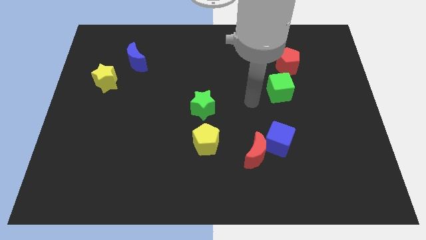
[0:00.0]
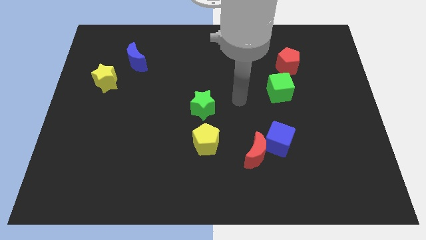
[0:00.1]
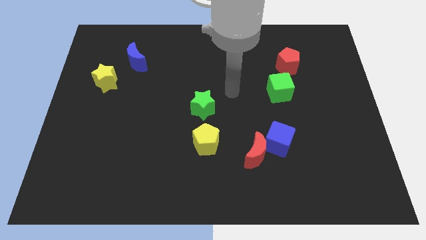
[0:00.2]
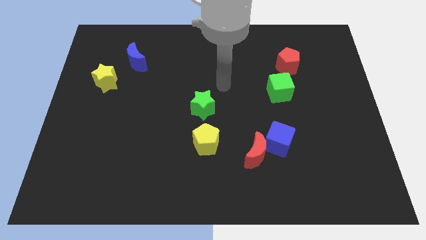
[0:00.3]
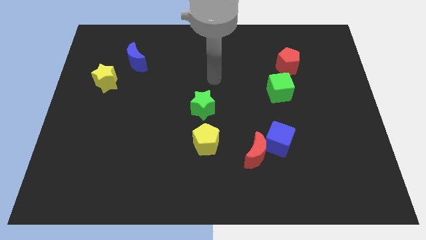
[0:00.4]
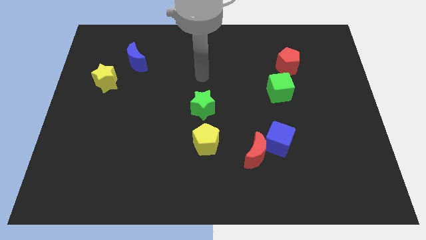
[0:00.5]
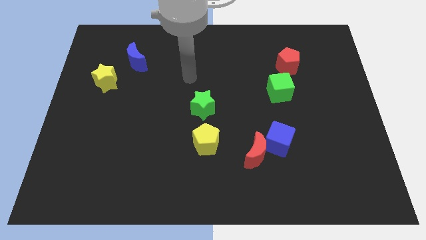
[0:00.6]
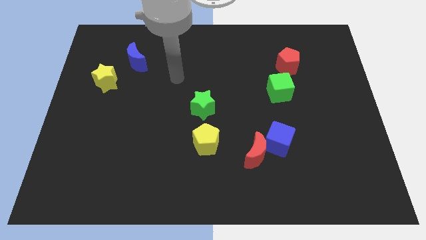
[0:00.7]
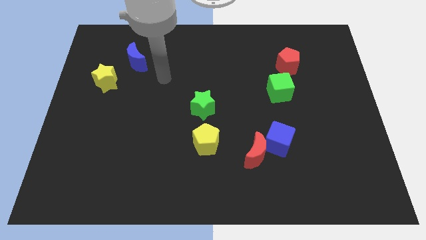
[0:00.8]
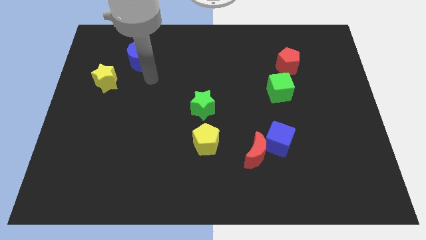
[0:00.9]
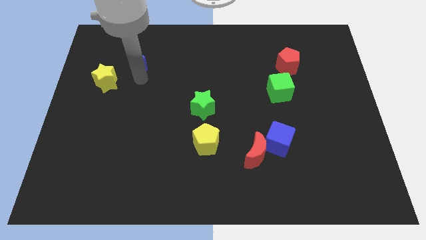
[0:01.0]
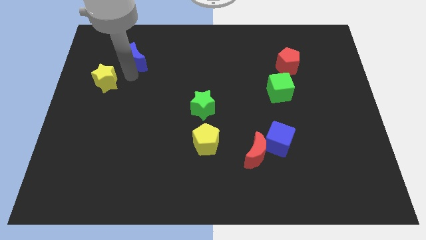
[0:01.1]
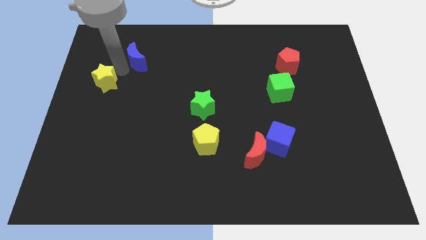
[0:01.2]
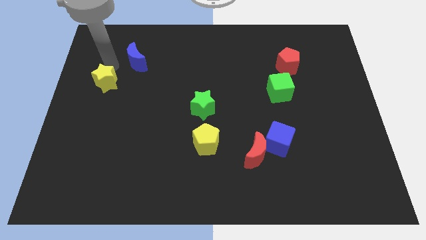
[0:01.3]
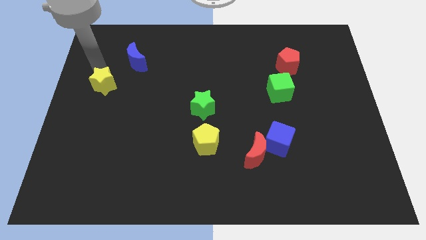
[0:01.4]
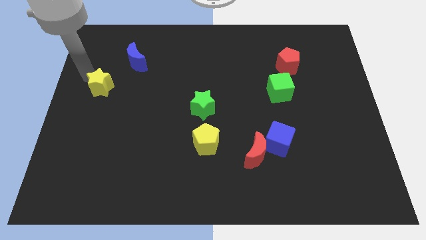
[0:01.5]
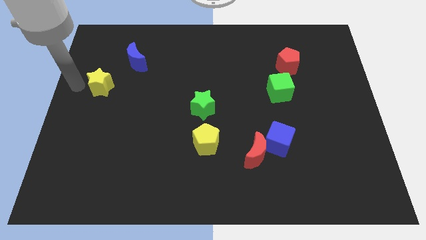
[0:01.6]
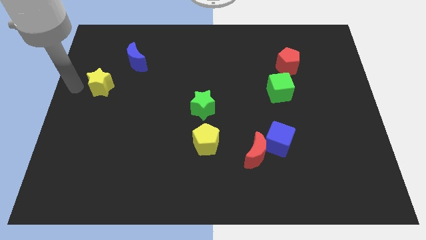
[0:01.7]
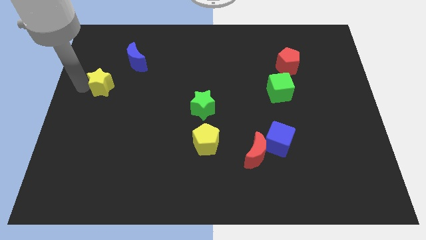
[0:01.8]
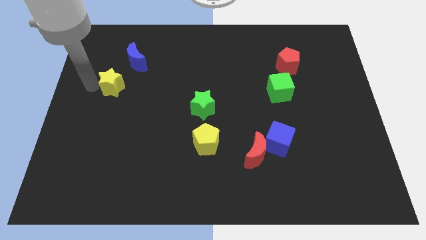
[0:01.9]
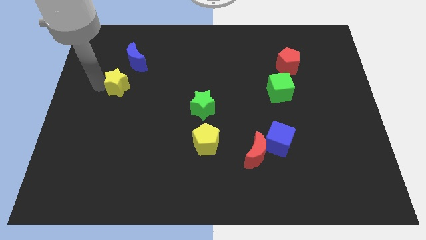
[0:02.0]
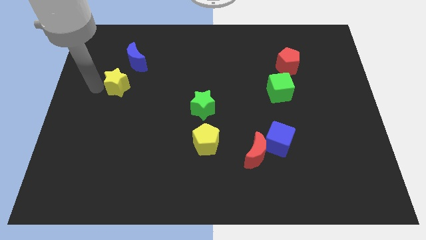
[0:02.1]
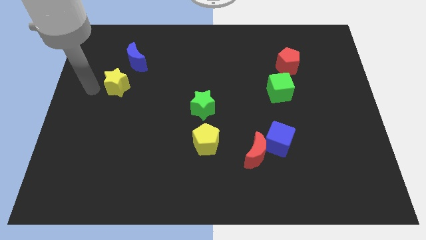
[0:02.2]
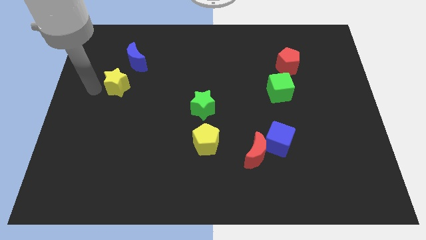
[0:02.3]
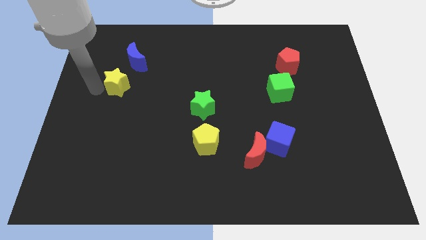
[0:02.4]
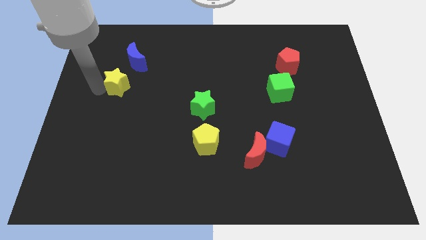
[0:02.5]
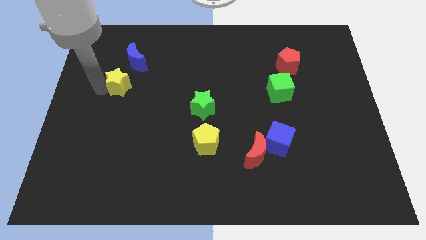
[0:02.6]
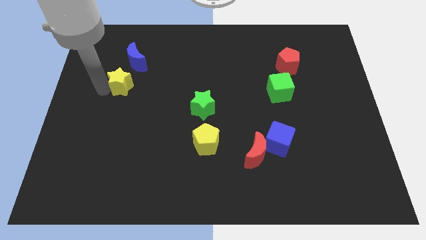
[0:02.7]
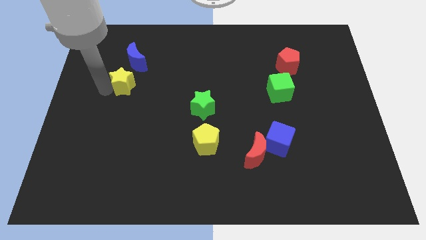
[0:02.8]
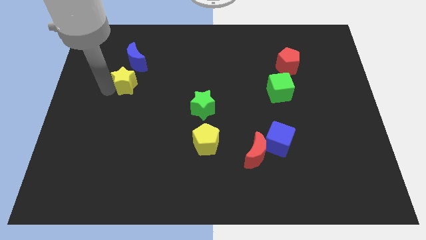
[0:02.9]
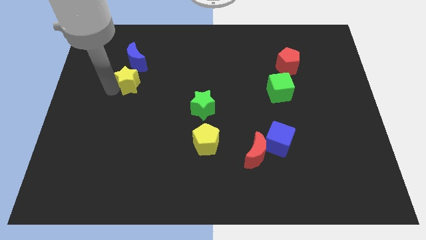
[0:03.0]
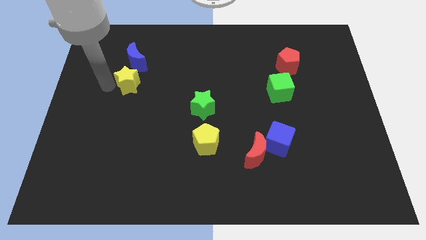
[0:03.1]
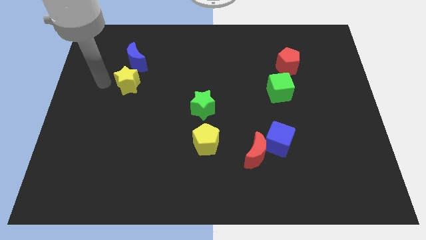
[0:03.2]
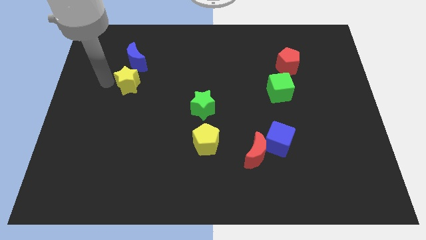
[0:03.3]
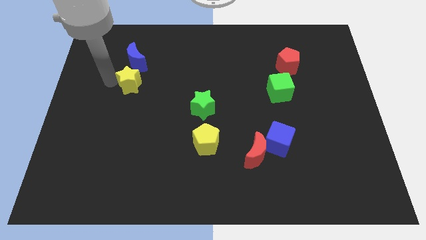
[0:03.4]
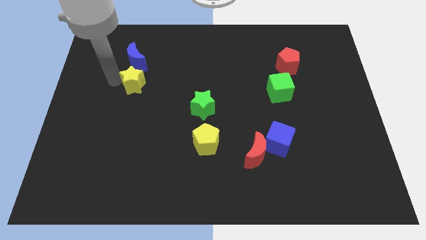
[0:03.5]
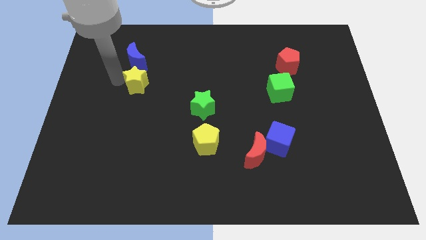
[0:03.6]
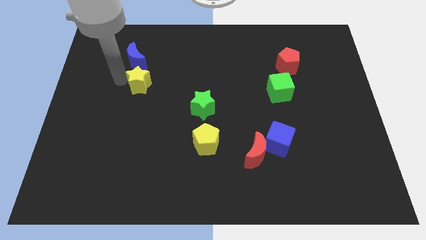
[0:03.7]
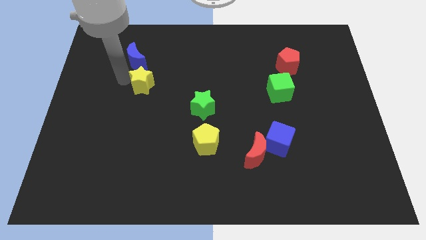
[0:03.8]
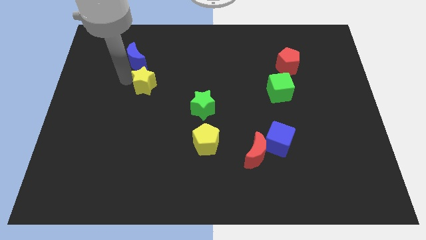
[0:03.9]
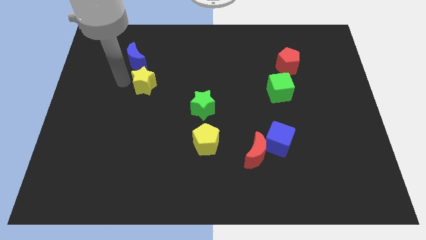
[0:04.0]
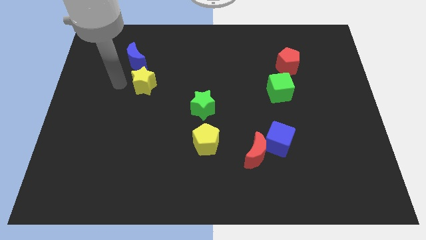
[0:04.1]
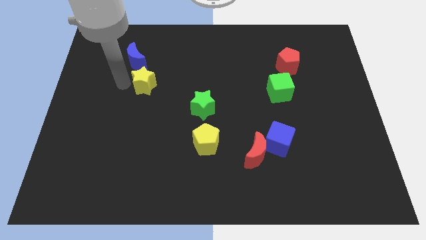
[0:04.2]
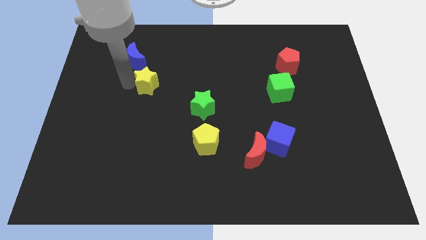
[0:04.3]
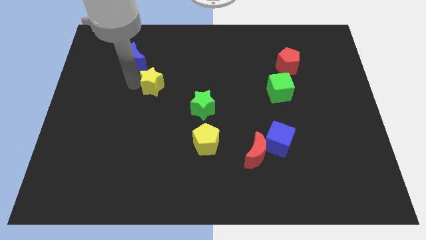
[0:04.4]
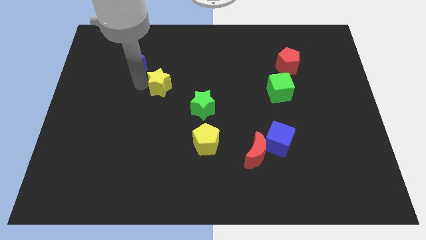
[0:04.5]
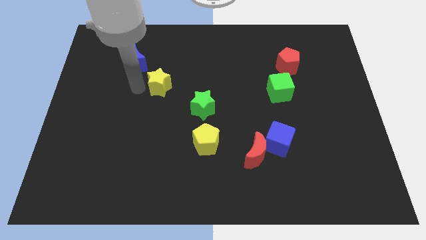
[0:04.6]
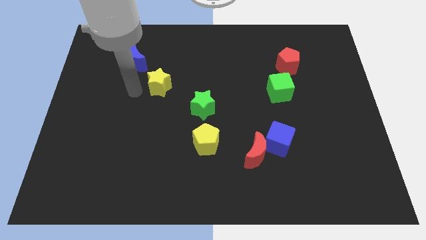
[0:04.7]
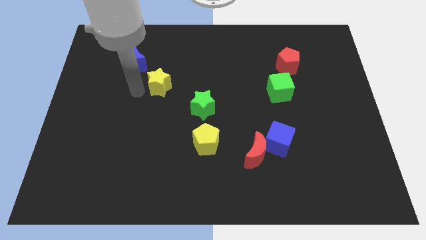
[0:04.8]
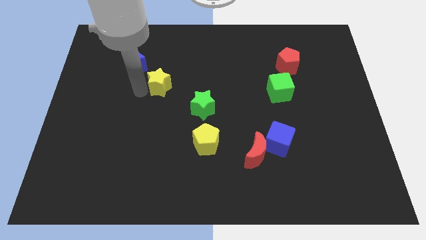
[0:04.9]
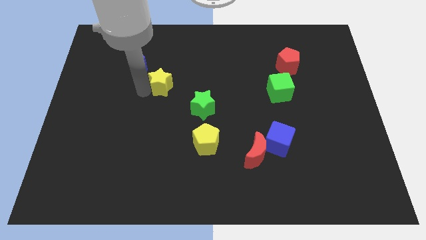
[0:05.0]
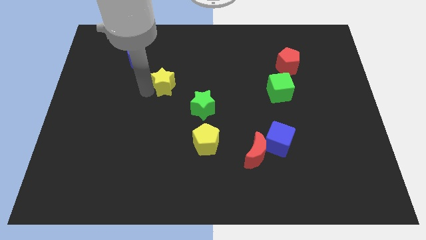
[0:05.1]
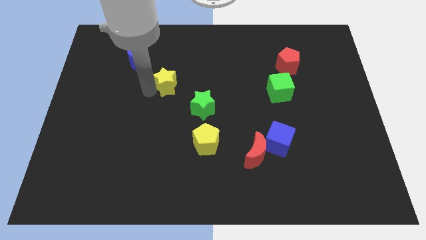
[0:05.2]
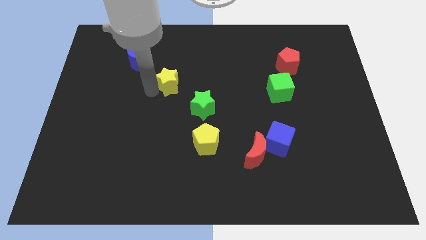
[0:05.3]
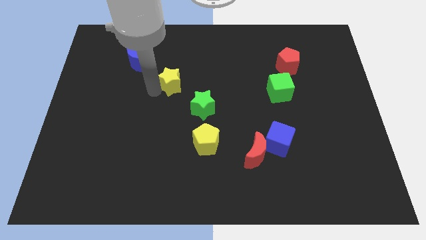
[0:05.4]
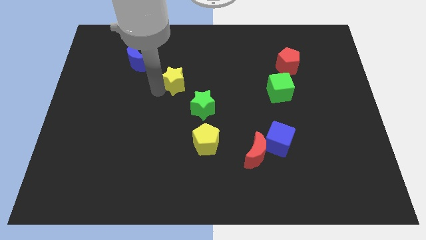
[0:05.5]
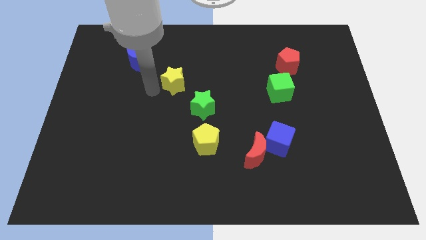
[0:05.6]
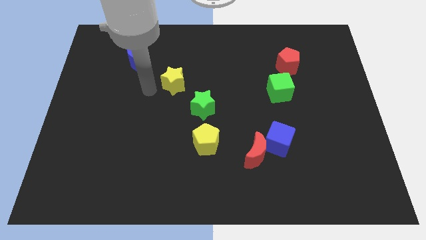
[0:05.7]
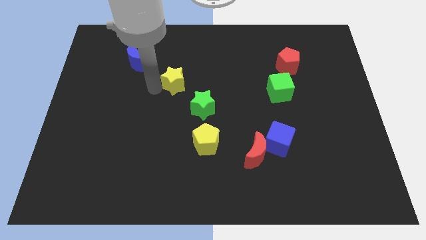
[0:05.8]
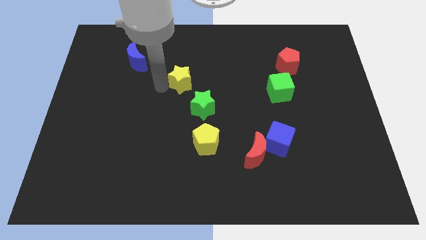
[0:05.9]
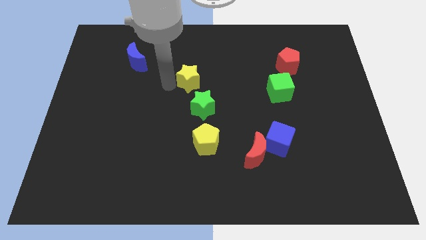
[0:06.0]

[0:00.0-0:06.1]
slide the yellow star to the top of the green star
